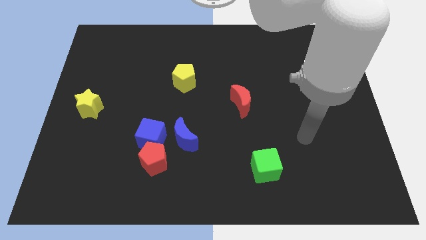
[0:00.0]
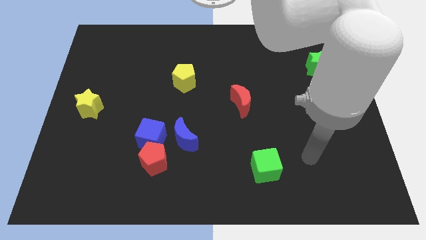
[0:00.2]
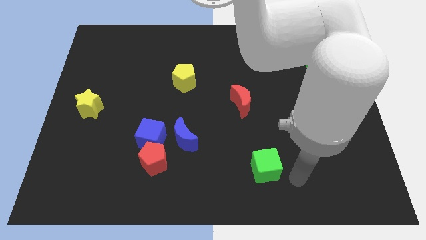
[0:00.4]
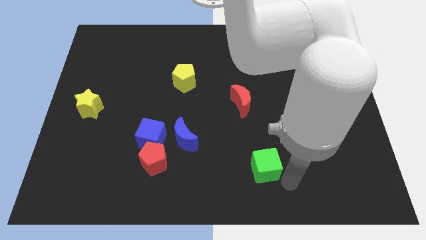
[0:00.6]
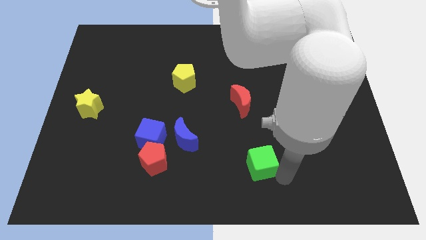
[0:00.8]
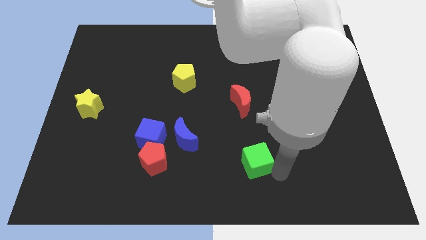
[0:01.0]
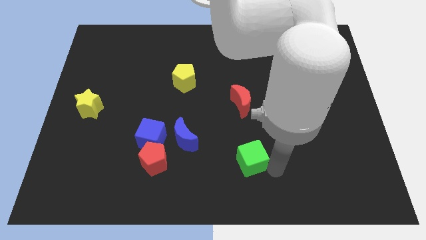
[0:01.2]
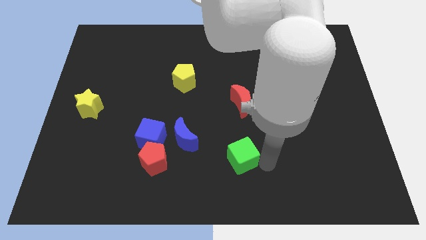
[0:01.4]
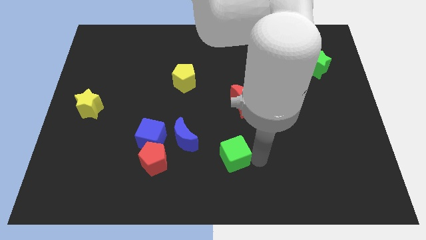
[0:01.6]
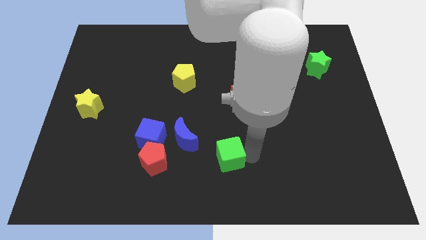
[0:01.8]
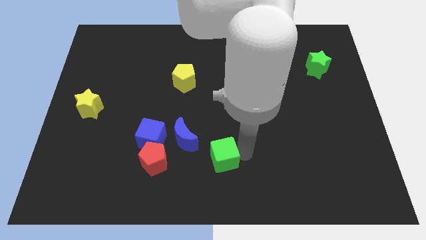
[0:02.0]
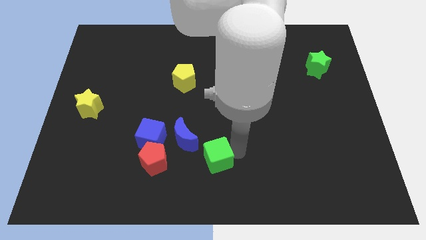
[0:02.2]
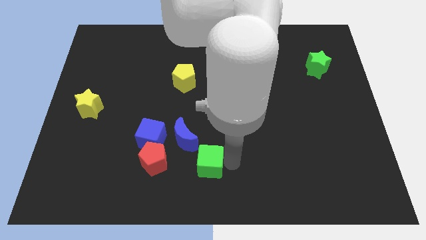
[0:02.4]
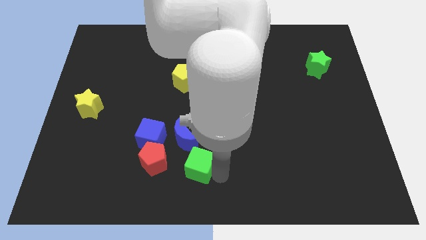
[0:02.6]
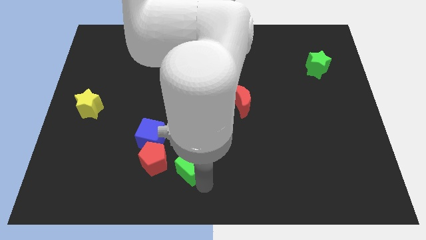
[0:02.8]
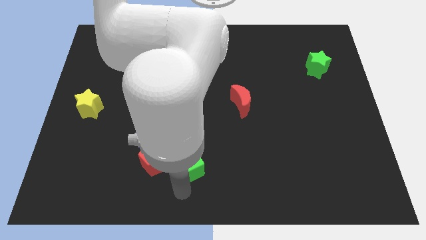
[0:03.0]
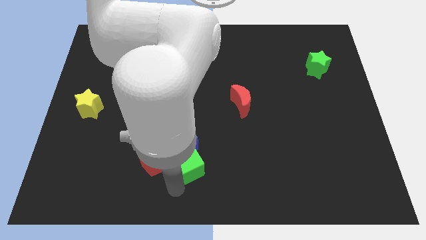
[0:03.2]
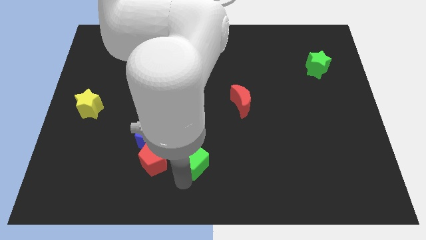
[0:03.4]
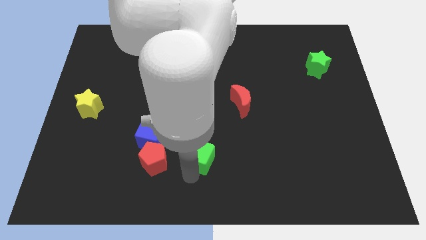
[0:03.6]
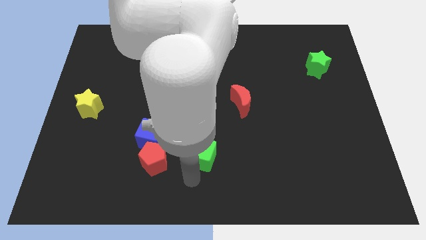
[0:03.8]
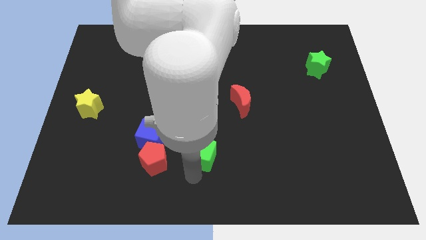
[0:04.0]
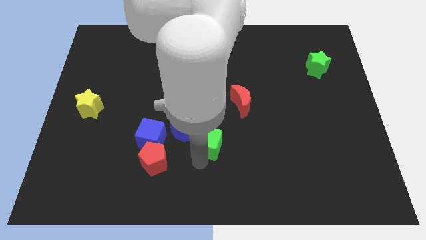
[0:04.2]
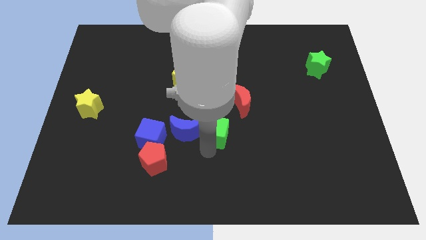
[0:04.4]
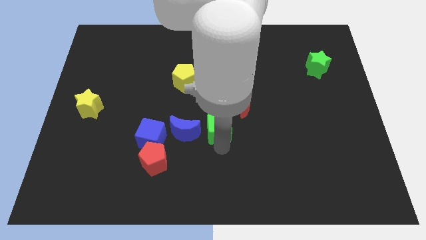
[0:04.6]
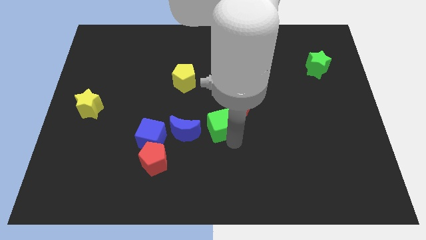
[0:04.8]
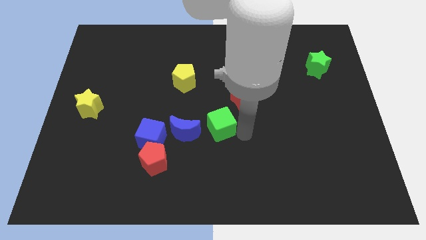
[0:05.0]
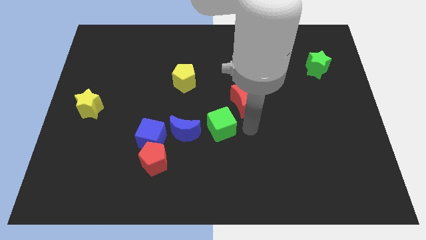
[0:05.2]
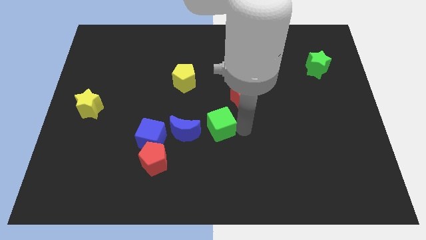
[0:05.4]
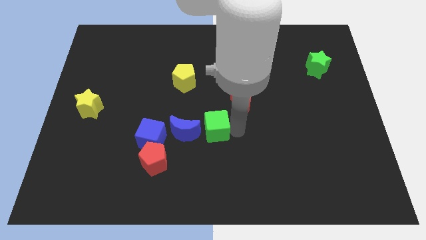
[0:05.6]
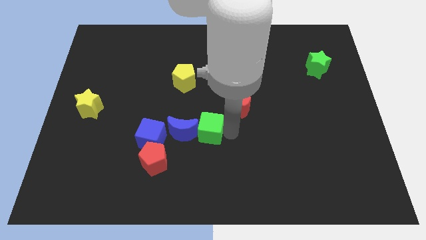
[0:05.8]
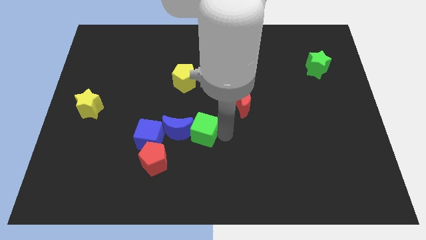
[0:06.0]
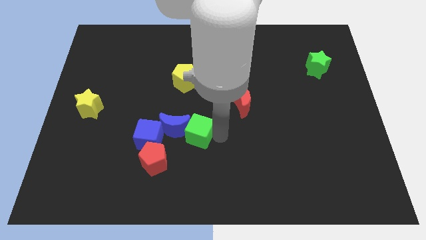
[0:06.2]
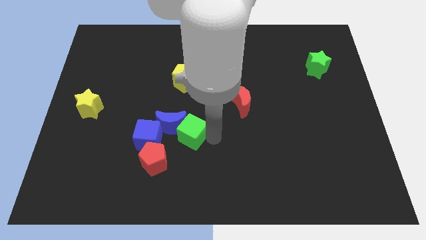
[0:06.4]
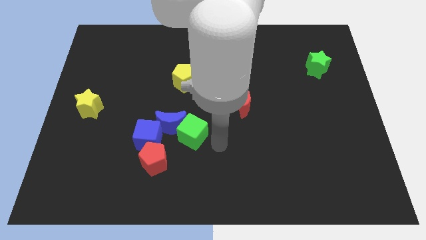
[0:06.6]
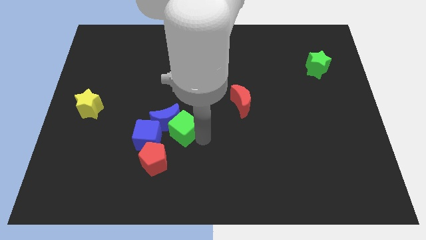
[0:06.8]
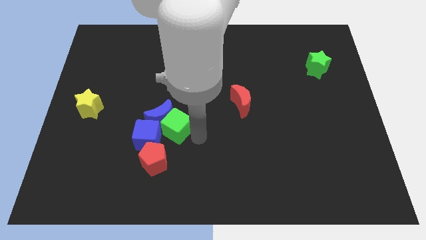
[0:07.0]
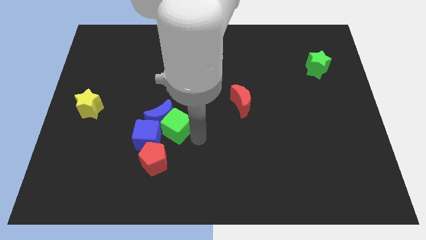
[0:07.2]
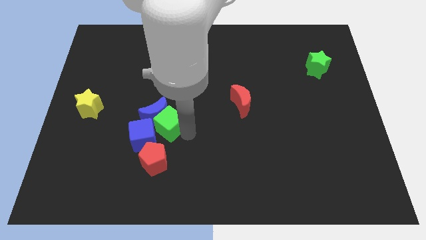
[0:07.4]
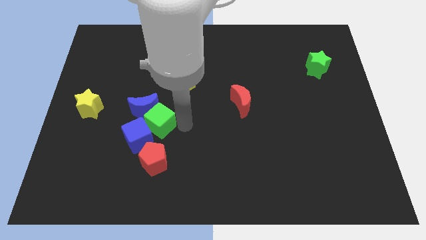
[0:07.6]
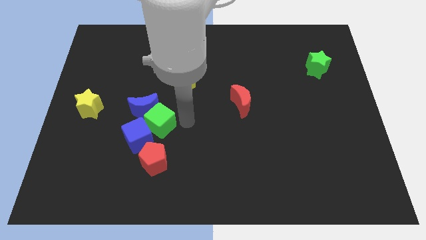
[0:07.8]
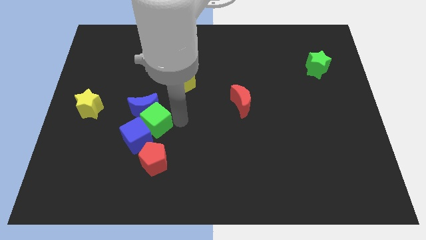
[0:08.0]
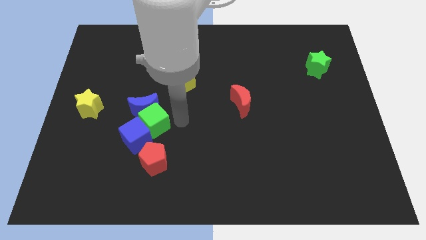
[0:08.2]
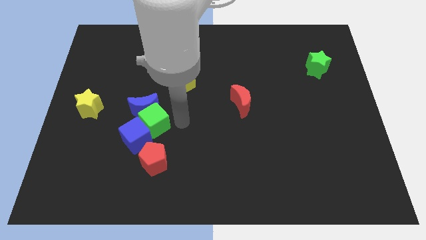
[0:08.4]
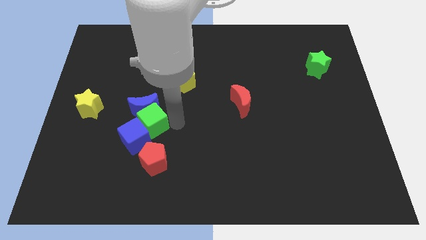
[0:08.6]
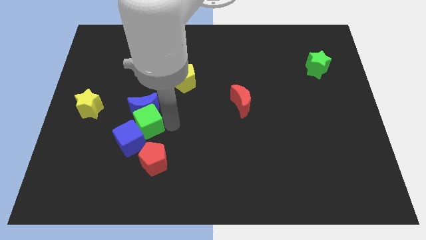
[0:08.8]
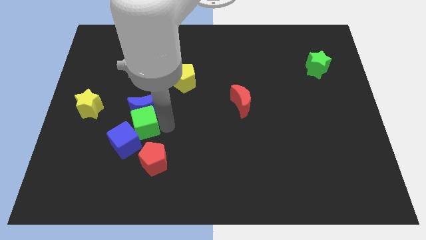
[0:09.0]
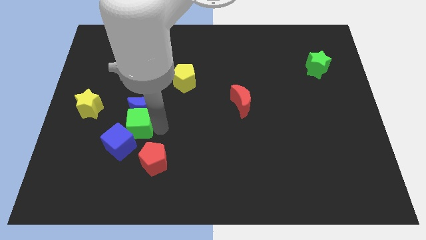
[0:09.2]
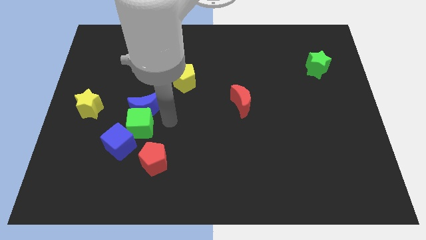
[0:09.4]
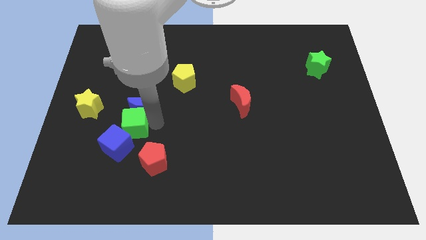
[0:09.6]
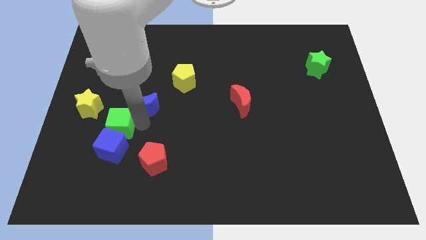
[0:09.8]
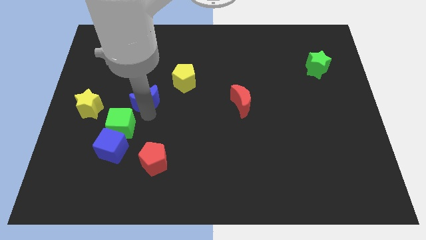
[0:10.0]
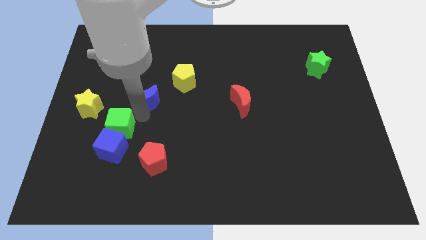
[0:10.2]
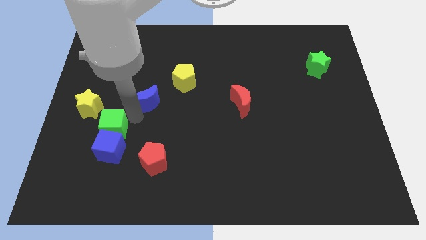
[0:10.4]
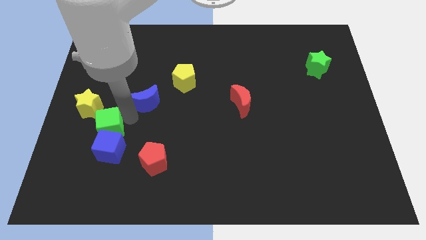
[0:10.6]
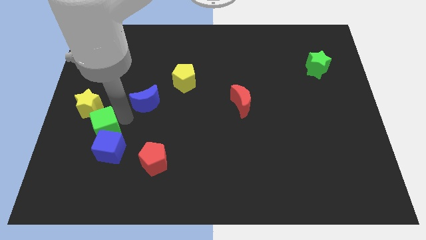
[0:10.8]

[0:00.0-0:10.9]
move the green cube below the yellow star

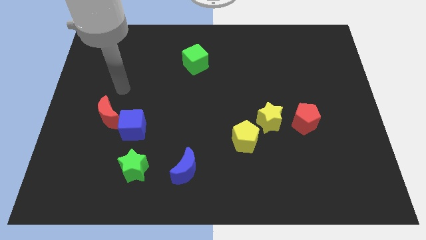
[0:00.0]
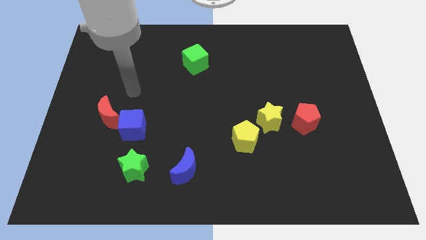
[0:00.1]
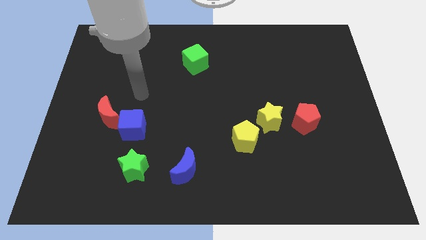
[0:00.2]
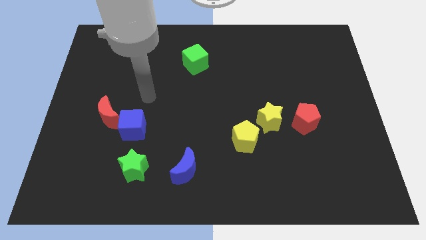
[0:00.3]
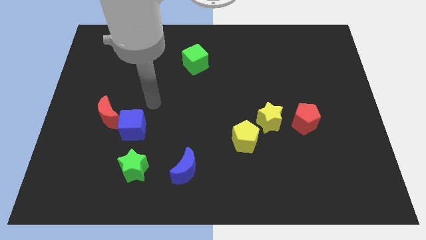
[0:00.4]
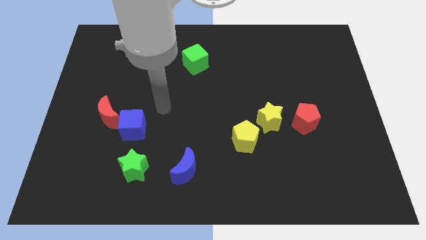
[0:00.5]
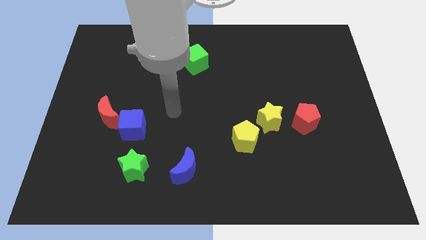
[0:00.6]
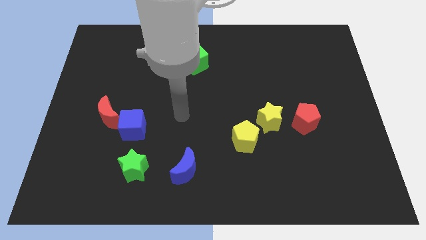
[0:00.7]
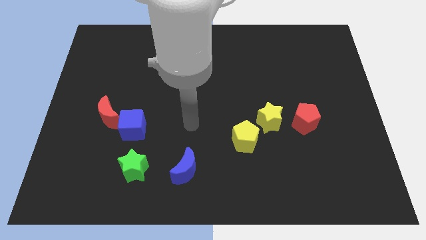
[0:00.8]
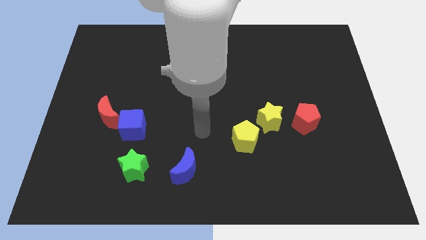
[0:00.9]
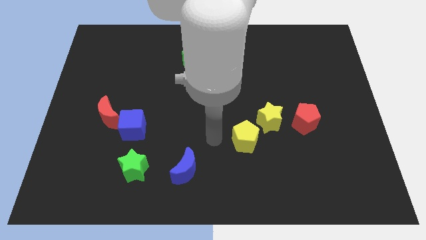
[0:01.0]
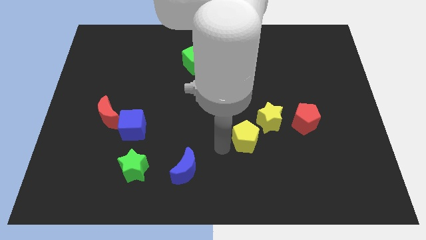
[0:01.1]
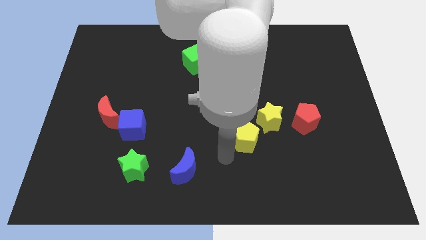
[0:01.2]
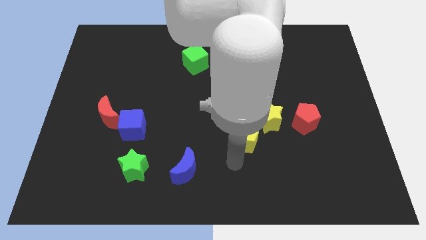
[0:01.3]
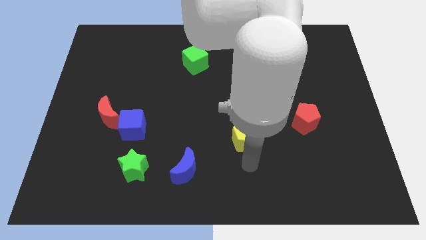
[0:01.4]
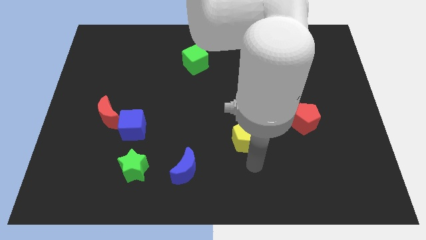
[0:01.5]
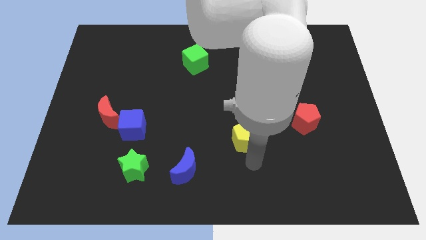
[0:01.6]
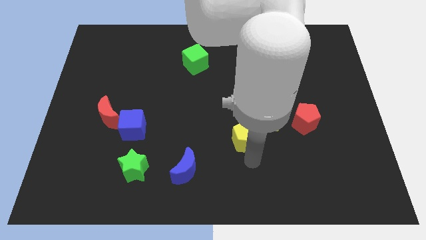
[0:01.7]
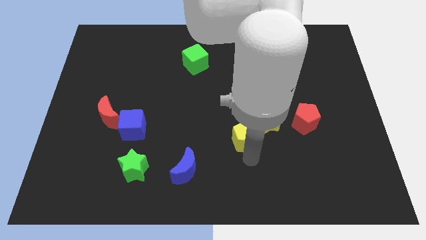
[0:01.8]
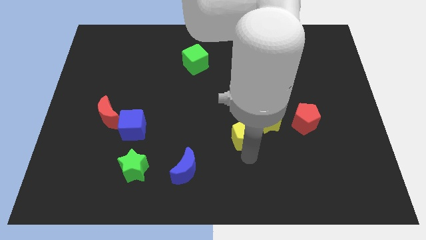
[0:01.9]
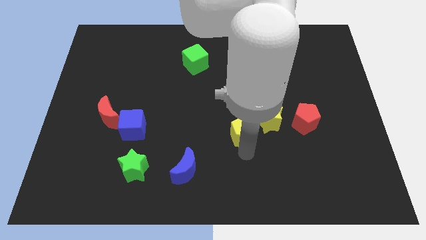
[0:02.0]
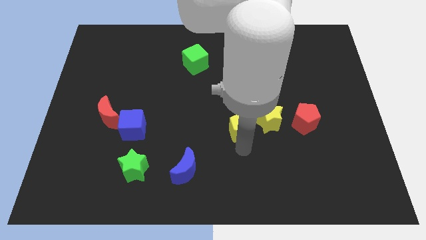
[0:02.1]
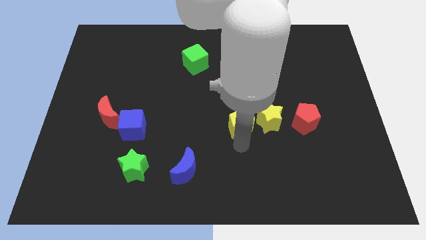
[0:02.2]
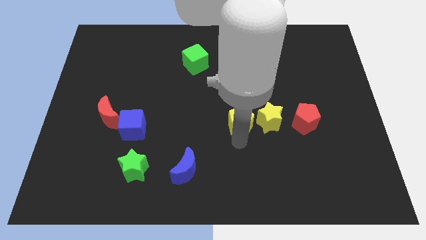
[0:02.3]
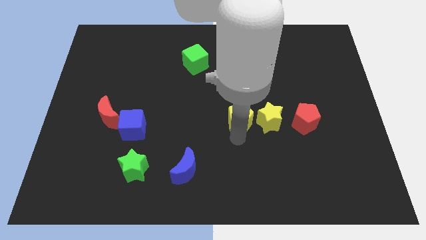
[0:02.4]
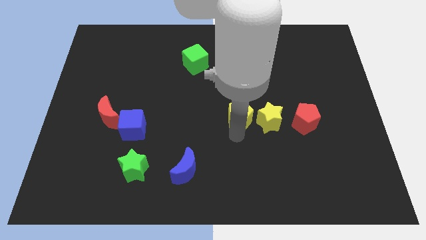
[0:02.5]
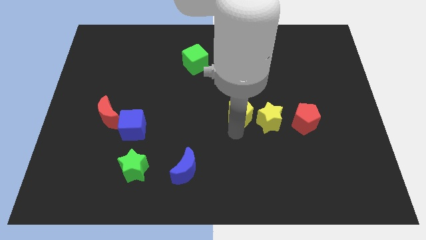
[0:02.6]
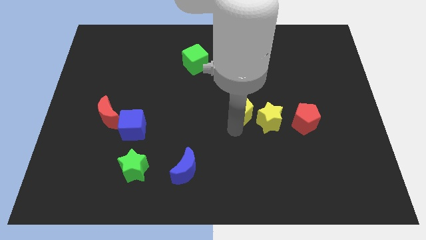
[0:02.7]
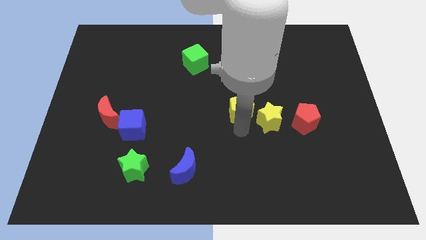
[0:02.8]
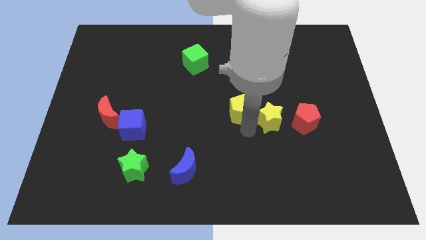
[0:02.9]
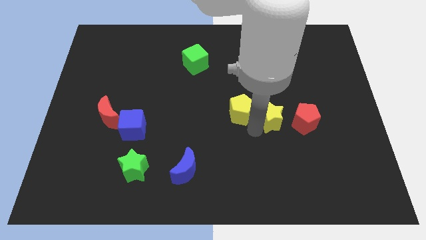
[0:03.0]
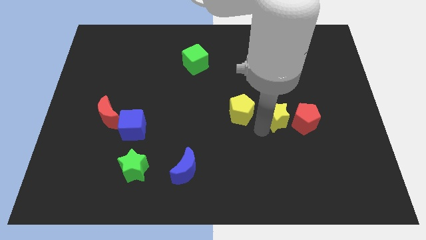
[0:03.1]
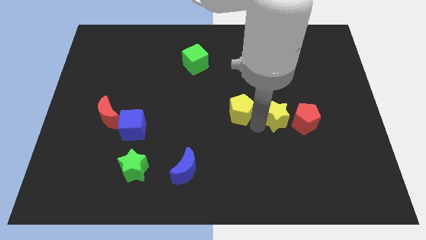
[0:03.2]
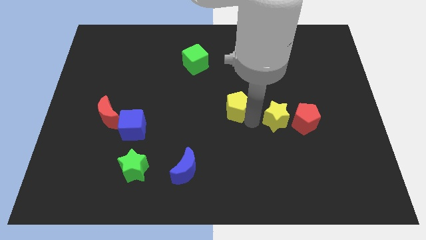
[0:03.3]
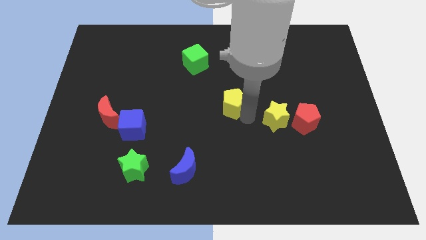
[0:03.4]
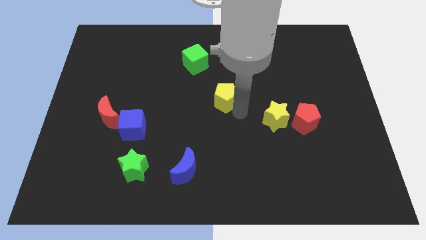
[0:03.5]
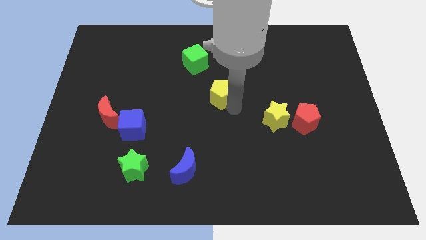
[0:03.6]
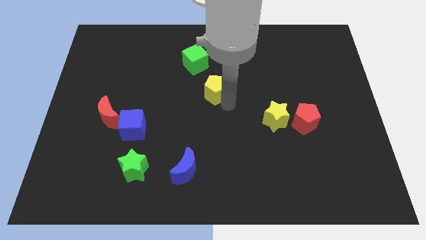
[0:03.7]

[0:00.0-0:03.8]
put the yellow pentagon to the bottom right side of the green cube
